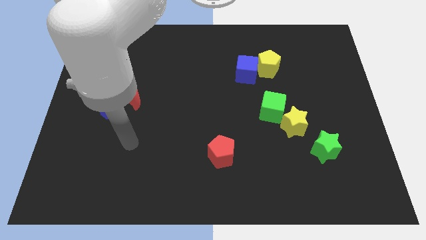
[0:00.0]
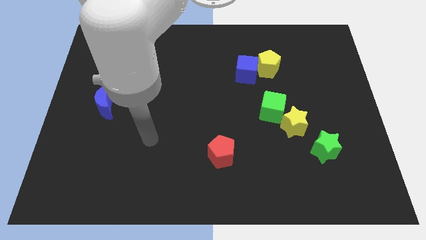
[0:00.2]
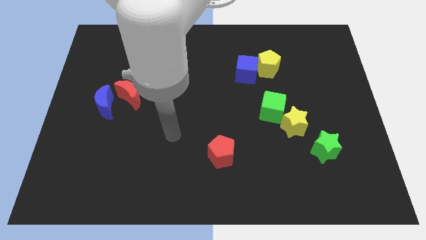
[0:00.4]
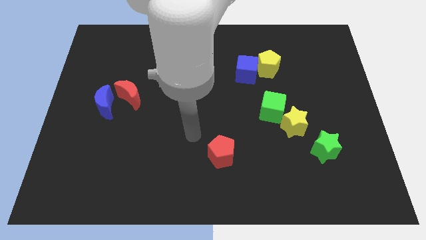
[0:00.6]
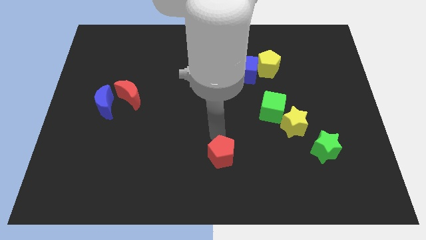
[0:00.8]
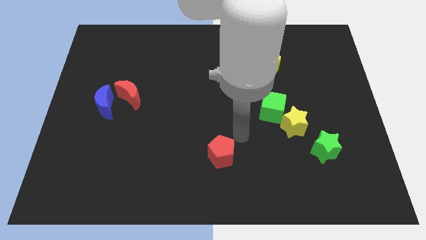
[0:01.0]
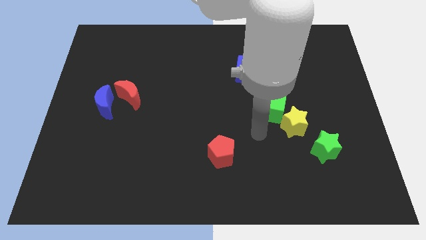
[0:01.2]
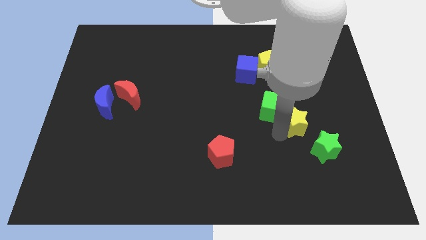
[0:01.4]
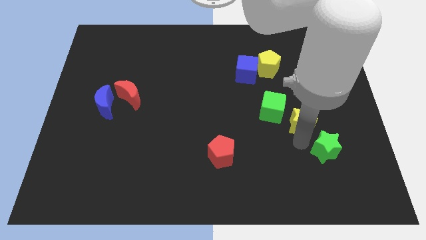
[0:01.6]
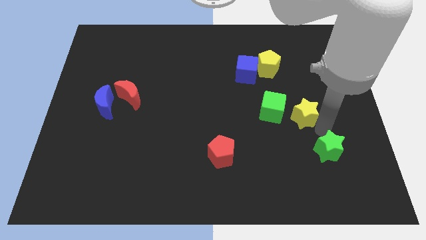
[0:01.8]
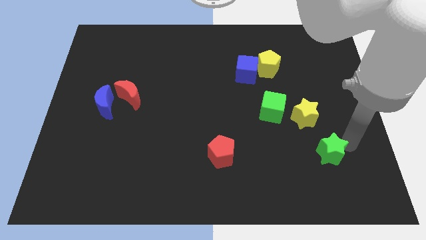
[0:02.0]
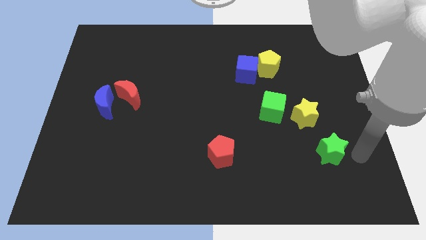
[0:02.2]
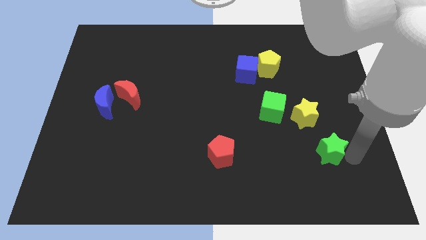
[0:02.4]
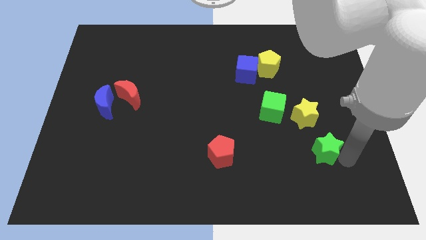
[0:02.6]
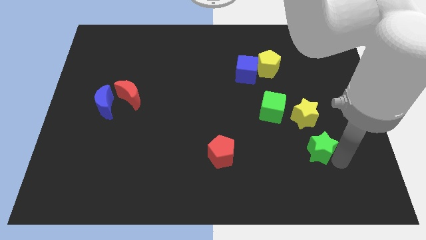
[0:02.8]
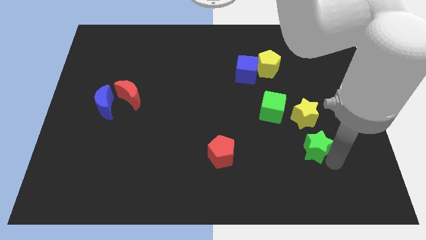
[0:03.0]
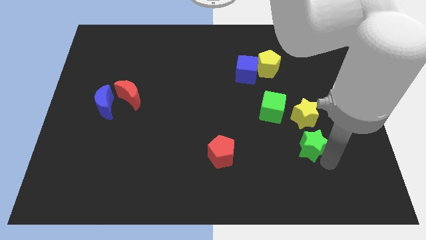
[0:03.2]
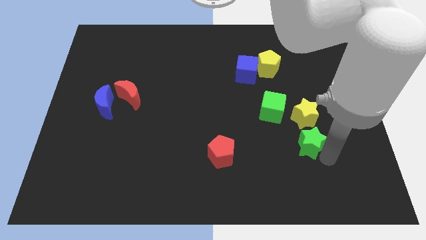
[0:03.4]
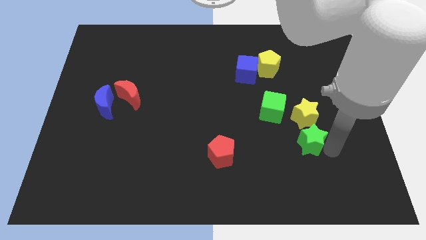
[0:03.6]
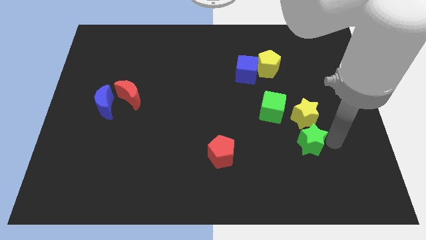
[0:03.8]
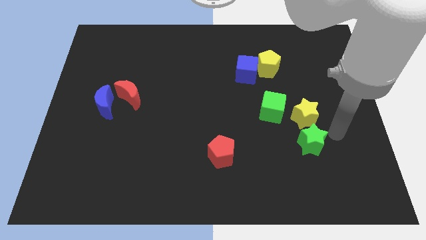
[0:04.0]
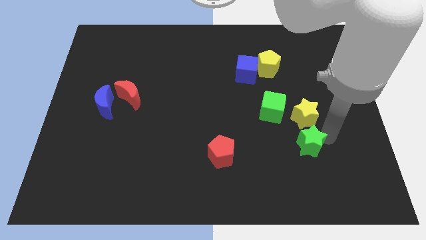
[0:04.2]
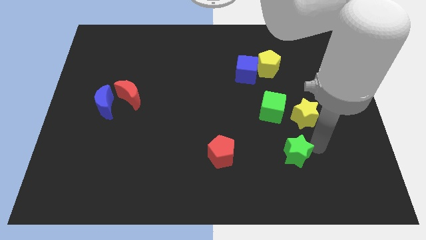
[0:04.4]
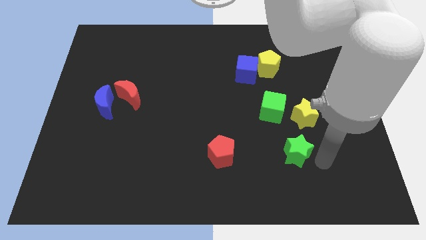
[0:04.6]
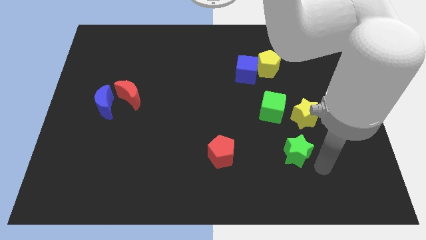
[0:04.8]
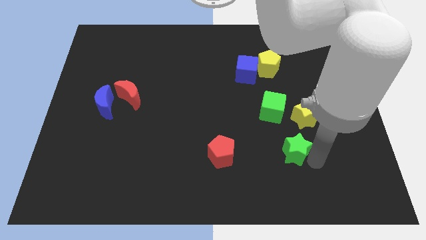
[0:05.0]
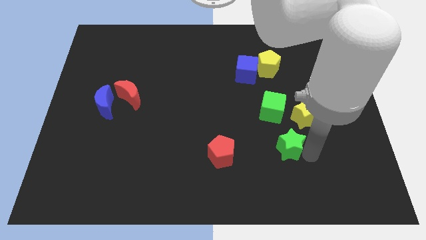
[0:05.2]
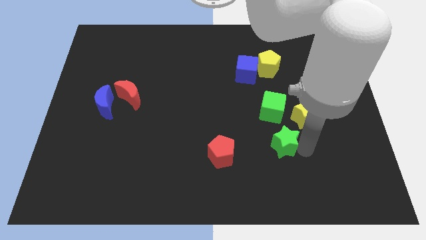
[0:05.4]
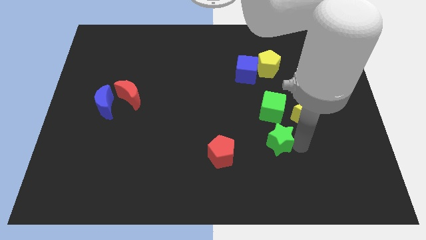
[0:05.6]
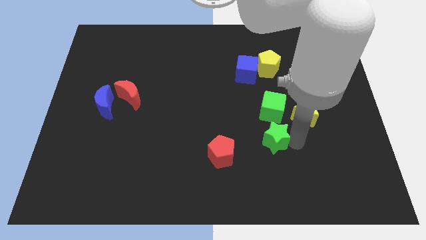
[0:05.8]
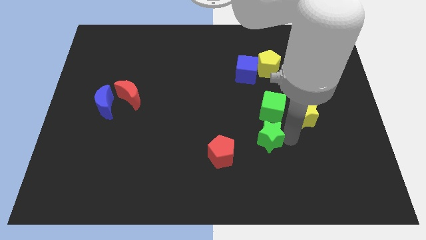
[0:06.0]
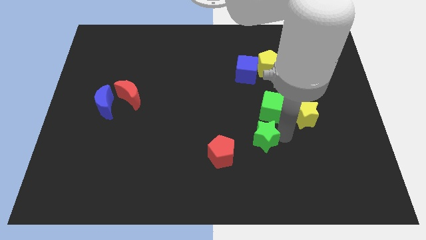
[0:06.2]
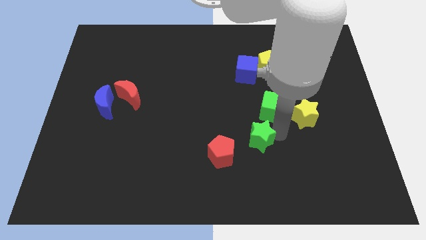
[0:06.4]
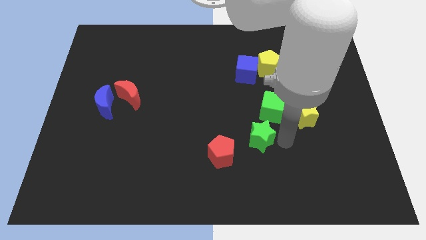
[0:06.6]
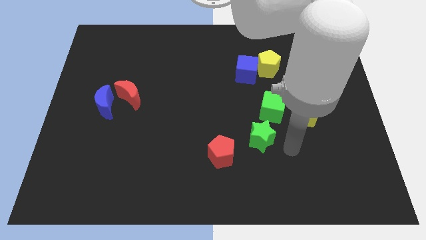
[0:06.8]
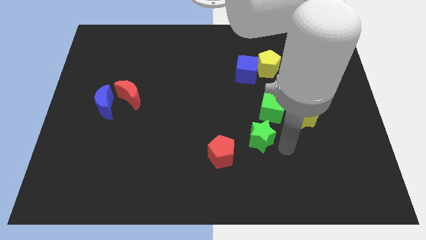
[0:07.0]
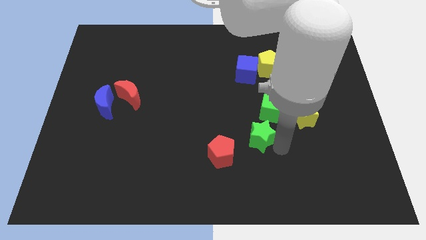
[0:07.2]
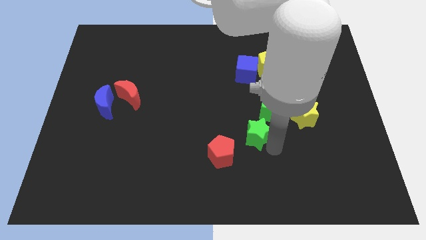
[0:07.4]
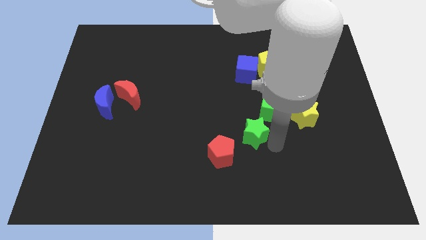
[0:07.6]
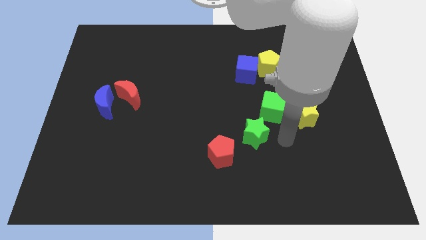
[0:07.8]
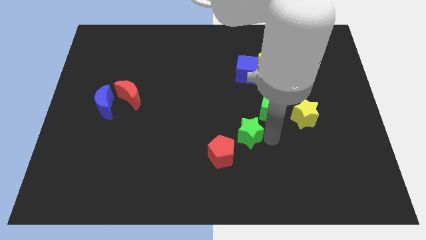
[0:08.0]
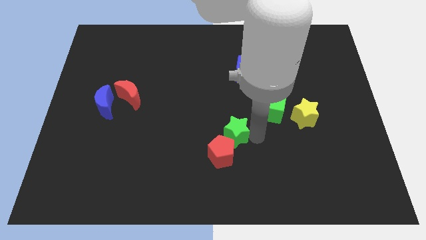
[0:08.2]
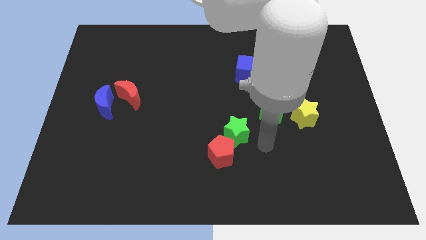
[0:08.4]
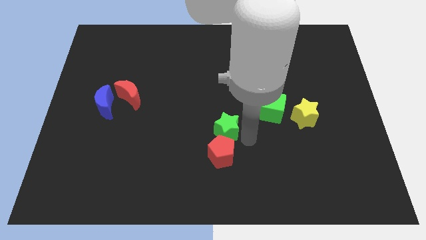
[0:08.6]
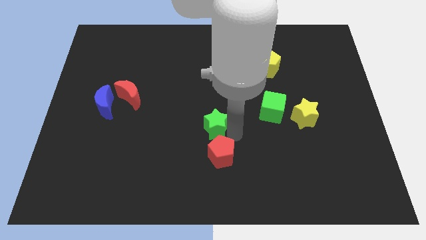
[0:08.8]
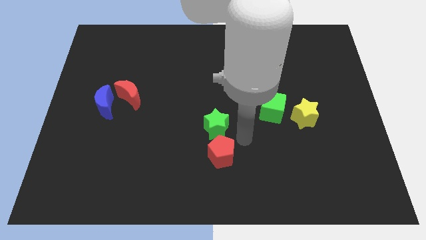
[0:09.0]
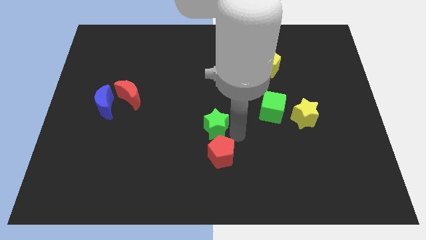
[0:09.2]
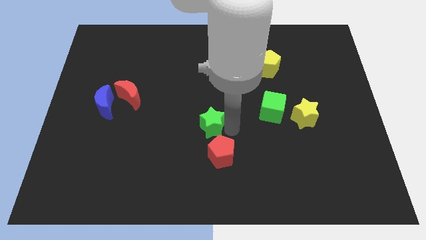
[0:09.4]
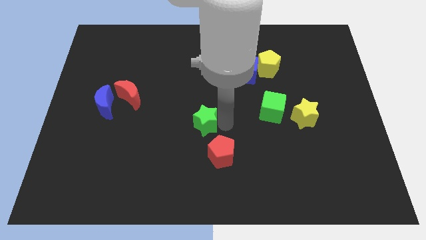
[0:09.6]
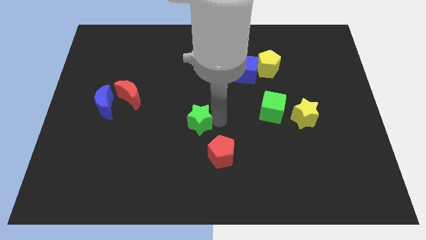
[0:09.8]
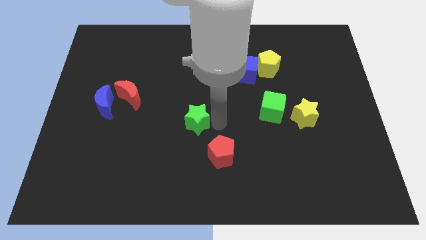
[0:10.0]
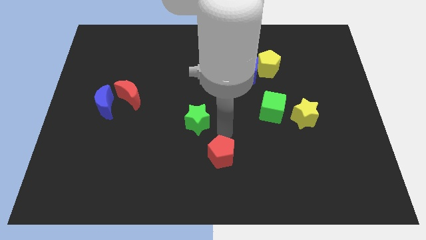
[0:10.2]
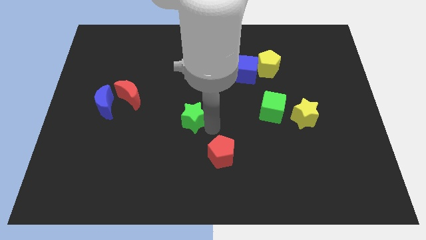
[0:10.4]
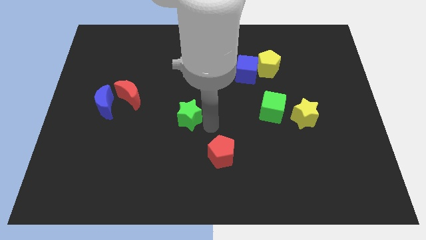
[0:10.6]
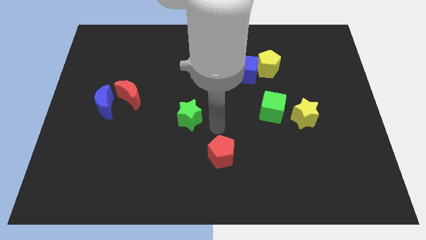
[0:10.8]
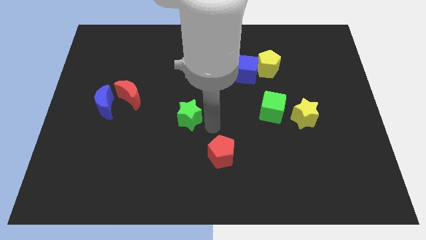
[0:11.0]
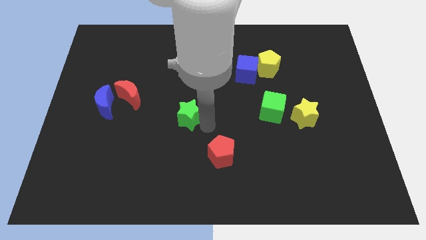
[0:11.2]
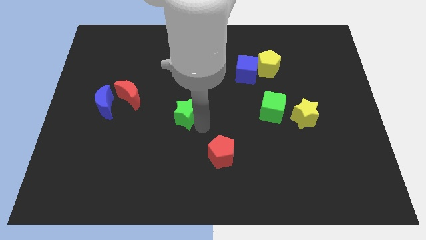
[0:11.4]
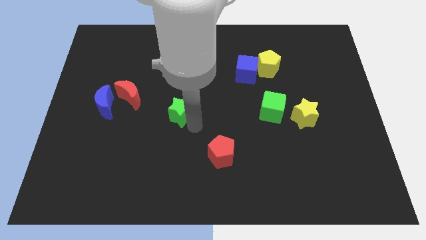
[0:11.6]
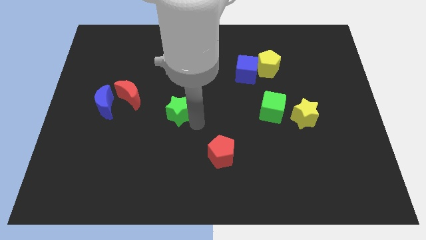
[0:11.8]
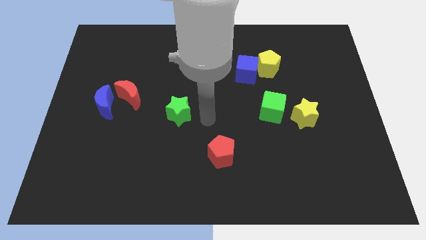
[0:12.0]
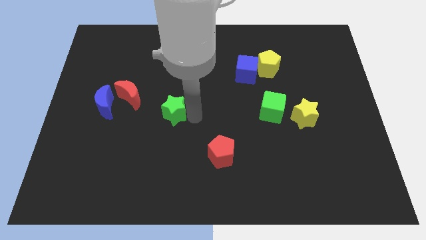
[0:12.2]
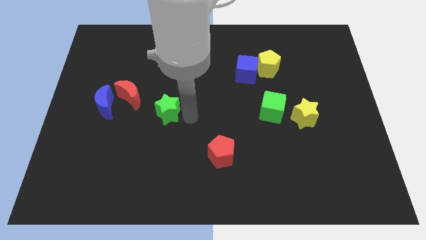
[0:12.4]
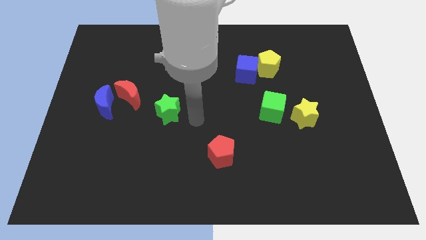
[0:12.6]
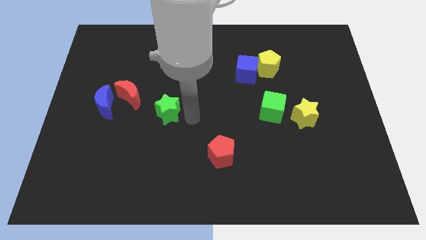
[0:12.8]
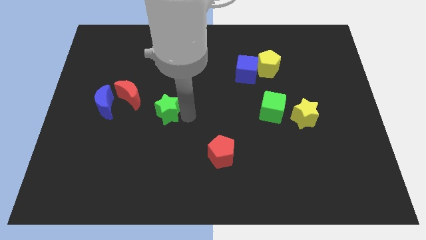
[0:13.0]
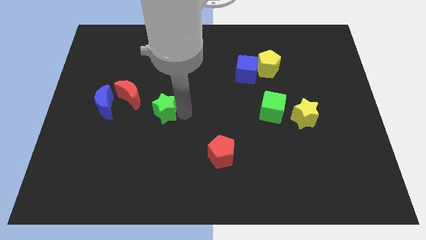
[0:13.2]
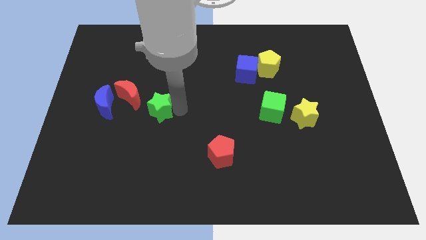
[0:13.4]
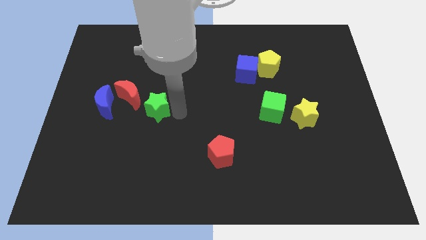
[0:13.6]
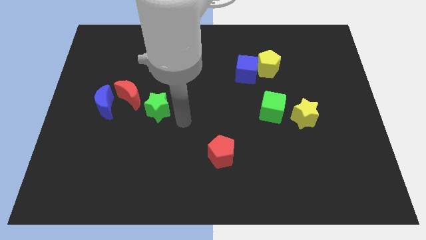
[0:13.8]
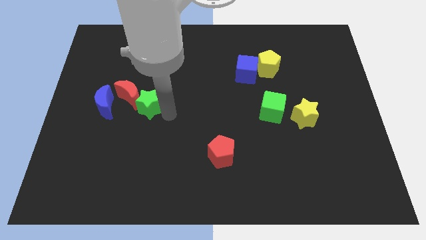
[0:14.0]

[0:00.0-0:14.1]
move the green star to the red moon
